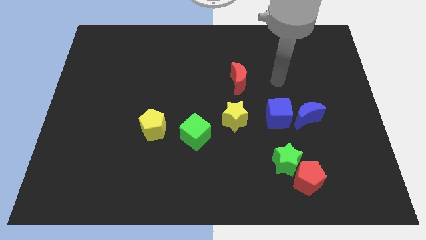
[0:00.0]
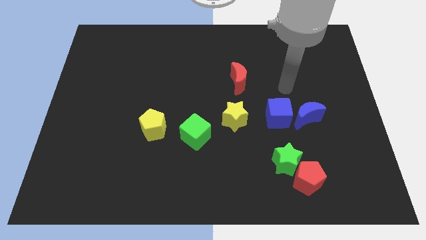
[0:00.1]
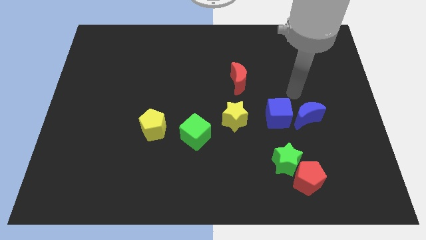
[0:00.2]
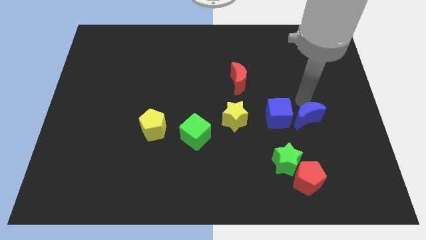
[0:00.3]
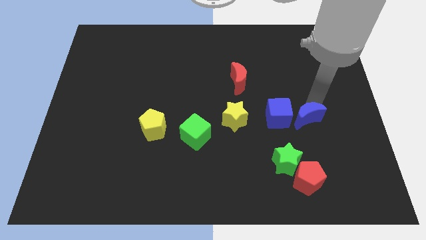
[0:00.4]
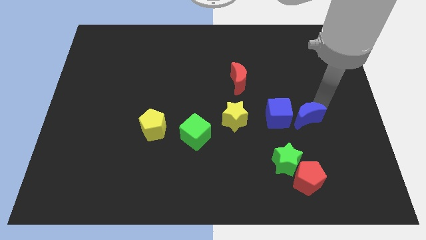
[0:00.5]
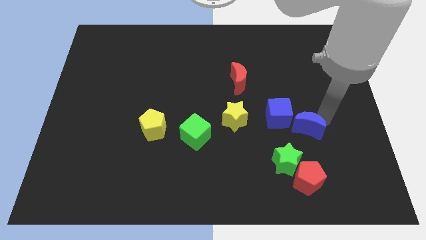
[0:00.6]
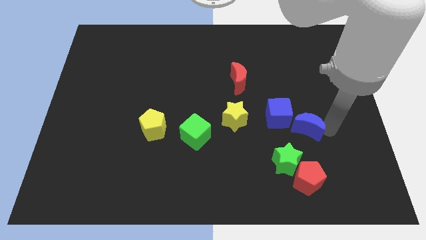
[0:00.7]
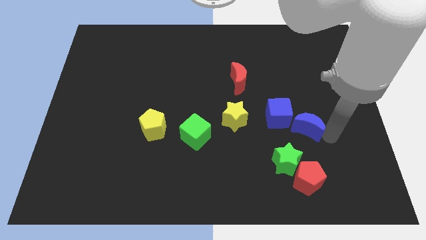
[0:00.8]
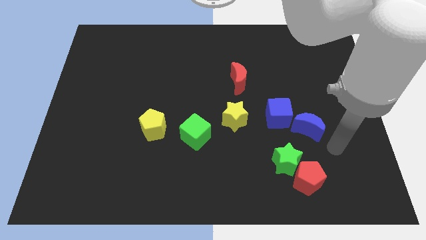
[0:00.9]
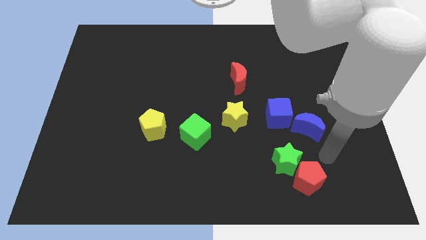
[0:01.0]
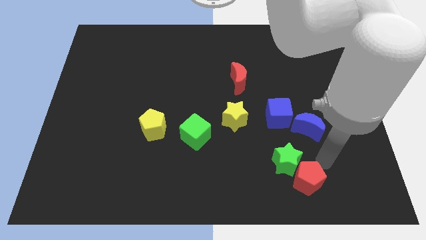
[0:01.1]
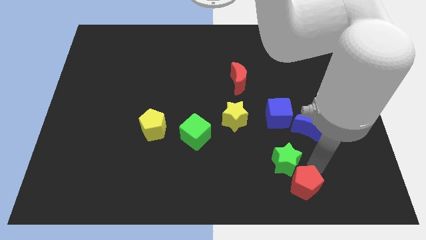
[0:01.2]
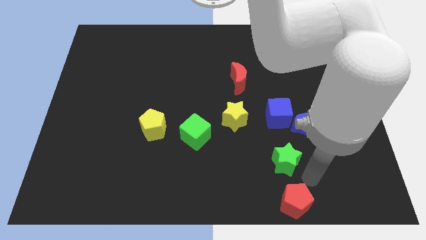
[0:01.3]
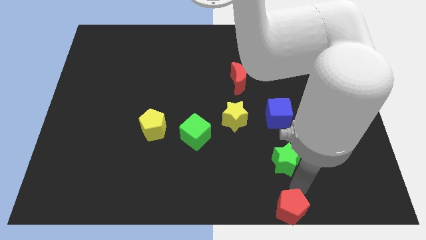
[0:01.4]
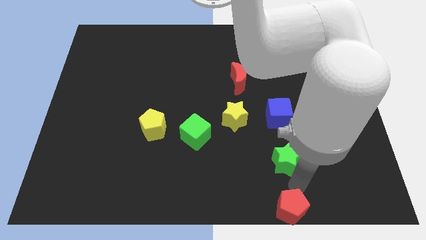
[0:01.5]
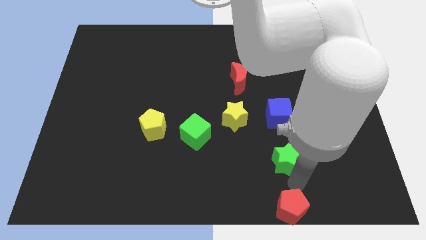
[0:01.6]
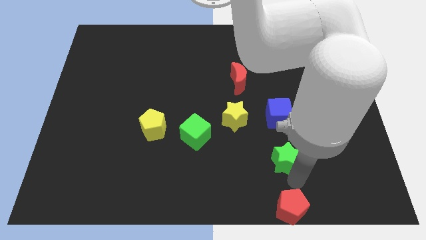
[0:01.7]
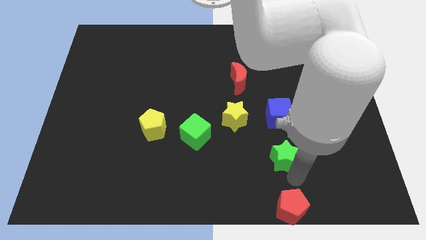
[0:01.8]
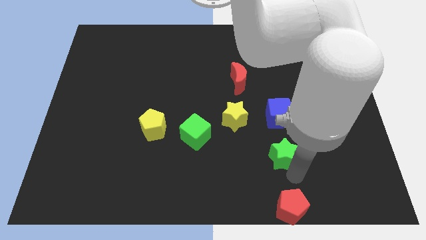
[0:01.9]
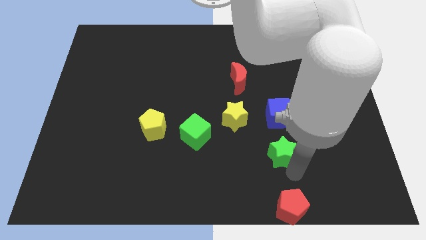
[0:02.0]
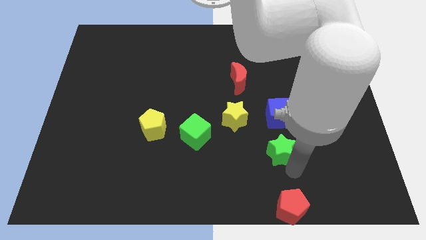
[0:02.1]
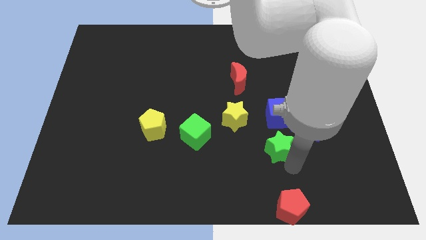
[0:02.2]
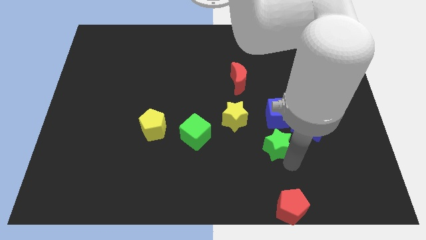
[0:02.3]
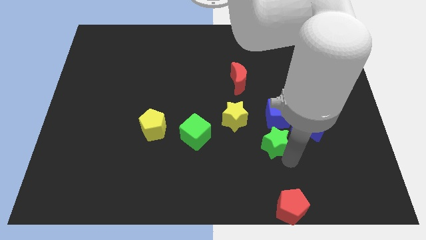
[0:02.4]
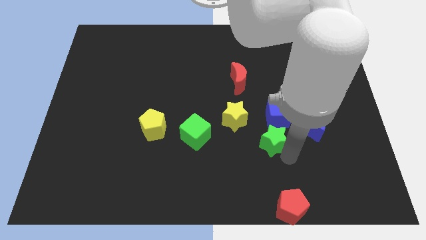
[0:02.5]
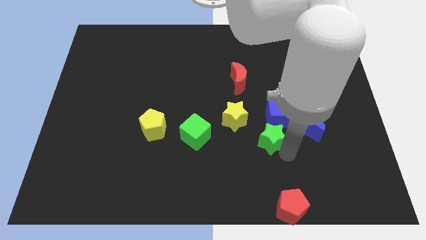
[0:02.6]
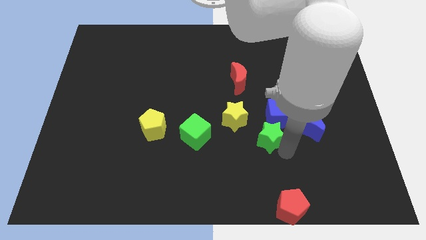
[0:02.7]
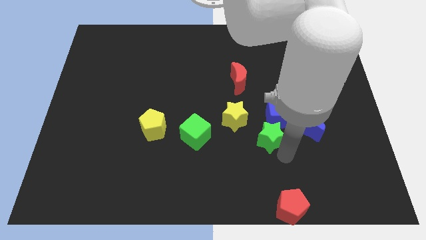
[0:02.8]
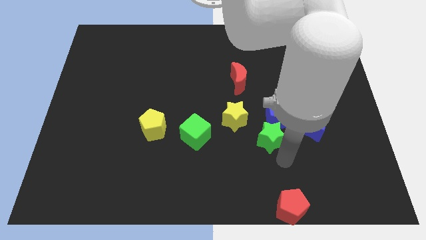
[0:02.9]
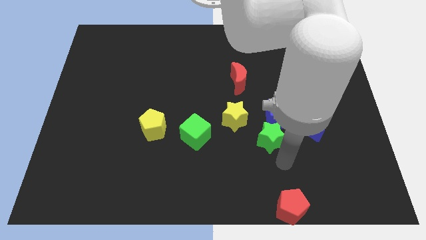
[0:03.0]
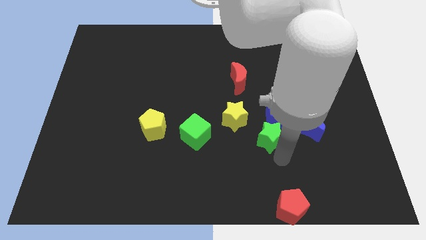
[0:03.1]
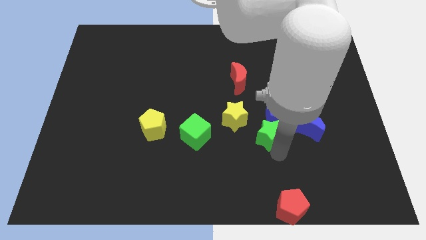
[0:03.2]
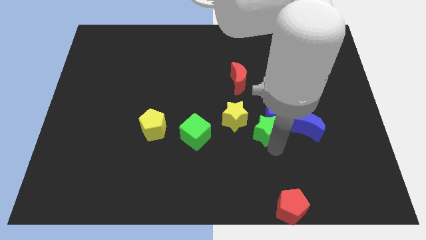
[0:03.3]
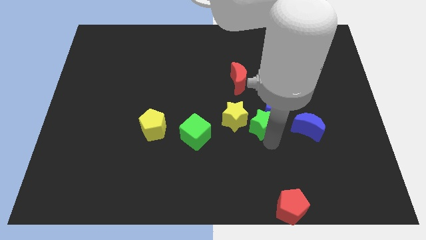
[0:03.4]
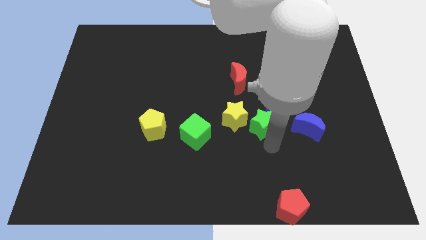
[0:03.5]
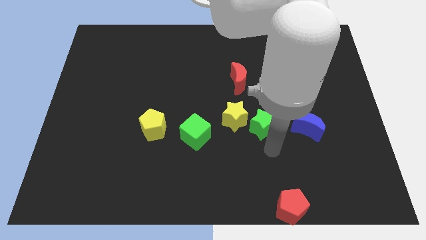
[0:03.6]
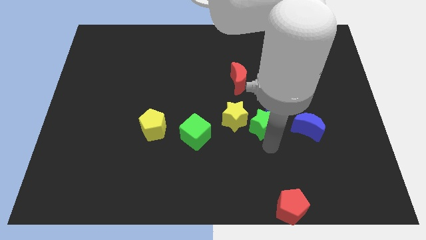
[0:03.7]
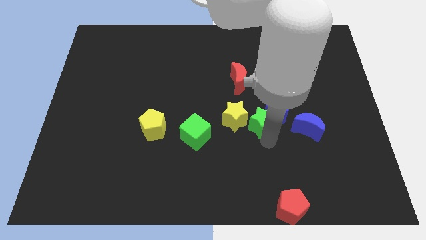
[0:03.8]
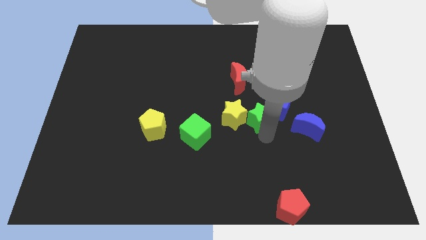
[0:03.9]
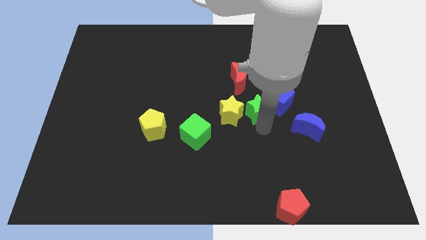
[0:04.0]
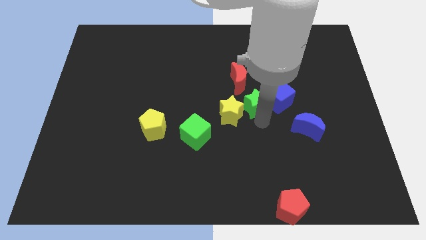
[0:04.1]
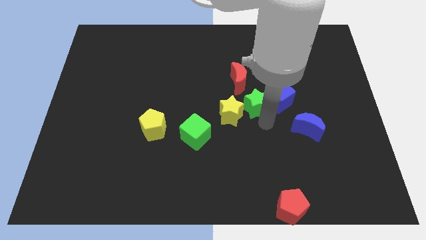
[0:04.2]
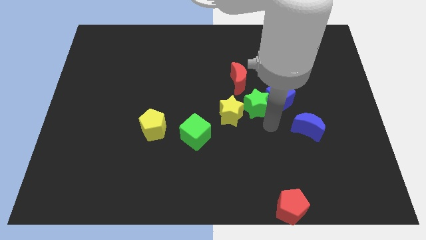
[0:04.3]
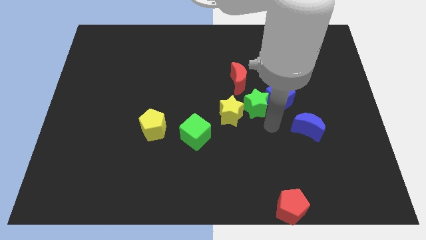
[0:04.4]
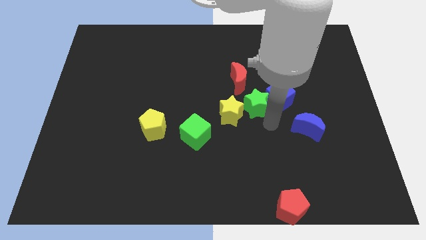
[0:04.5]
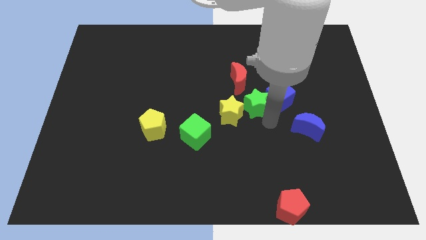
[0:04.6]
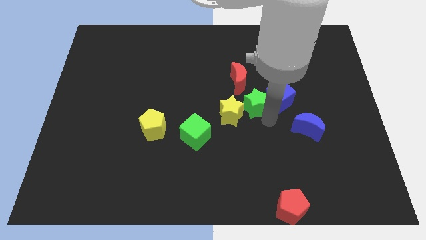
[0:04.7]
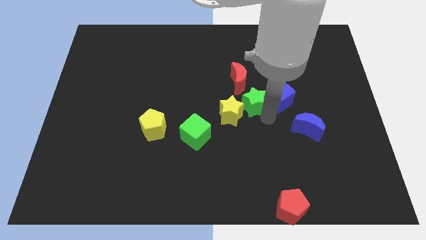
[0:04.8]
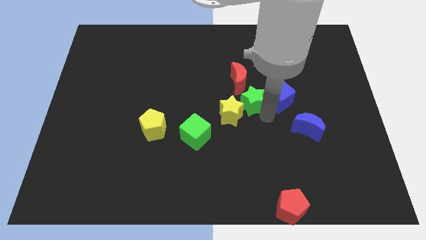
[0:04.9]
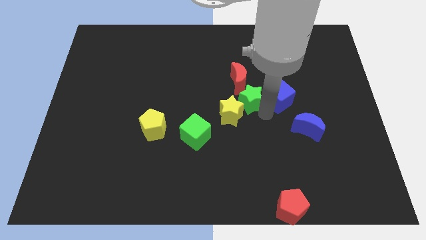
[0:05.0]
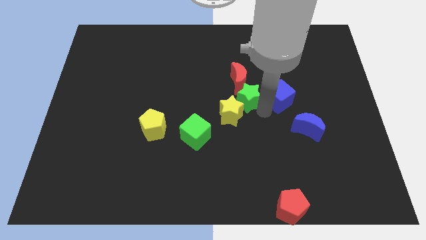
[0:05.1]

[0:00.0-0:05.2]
move the green star close to the red moon

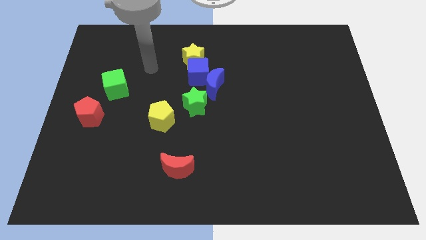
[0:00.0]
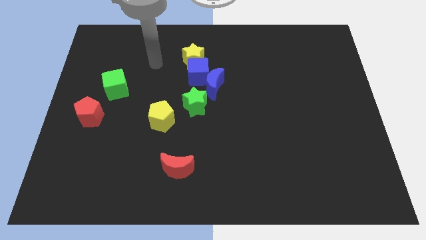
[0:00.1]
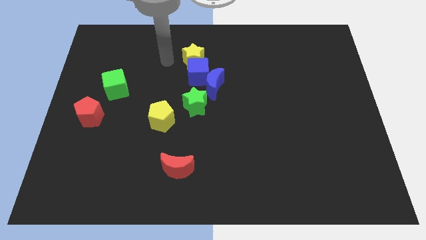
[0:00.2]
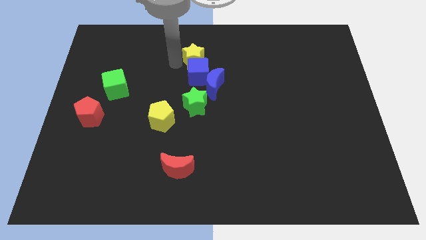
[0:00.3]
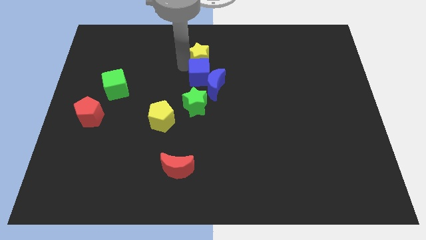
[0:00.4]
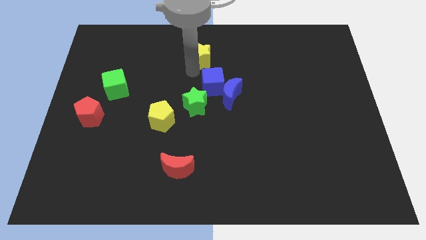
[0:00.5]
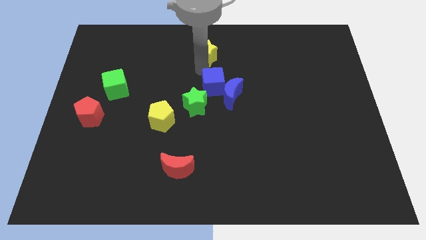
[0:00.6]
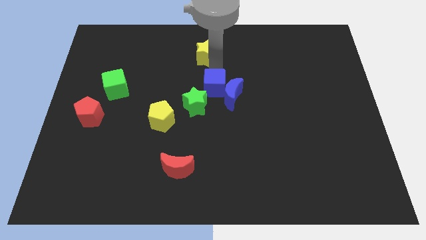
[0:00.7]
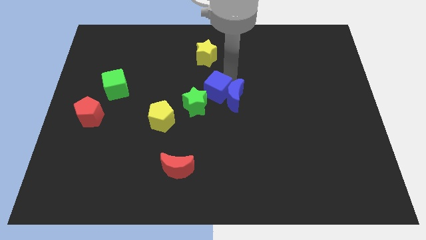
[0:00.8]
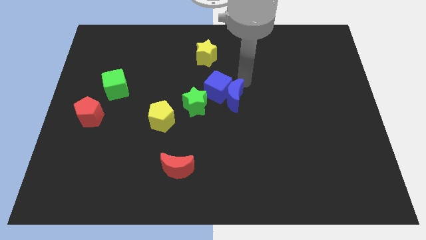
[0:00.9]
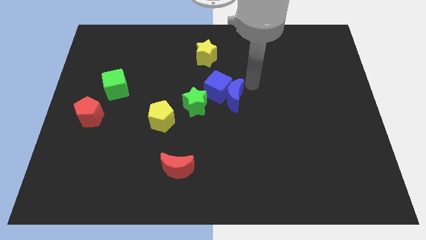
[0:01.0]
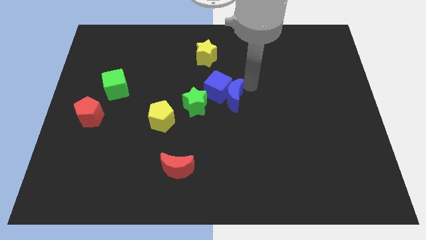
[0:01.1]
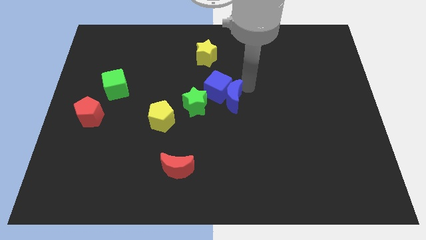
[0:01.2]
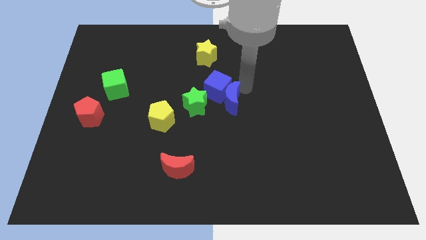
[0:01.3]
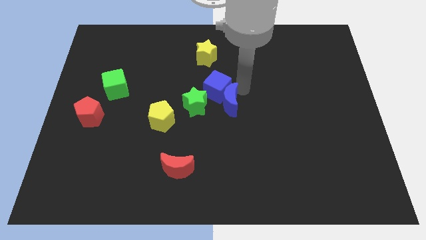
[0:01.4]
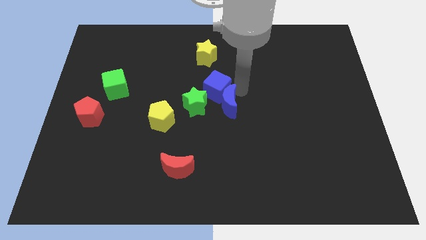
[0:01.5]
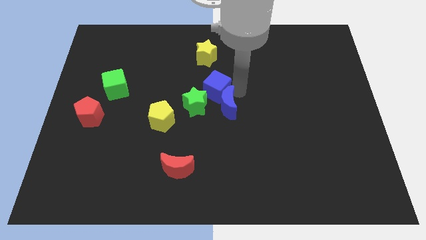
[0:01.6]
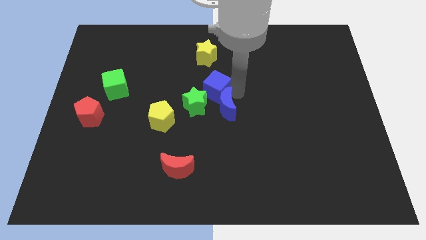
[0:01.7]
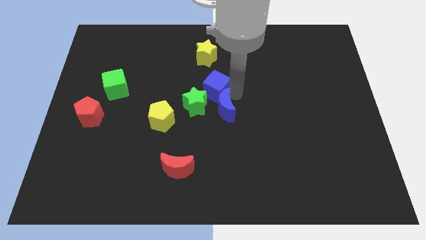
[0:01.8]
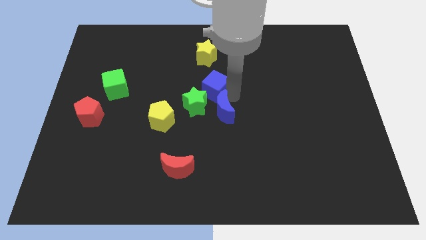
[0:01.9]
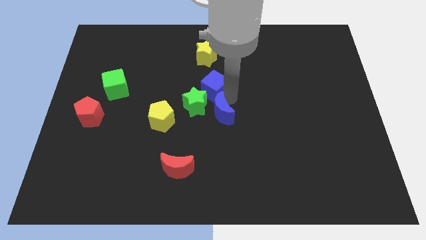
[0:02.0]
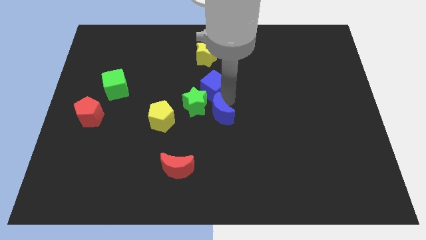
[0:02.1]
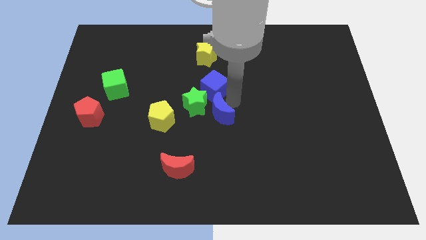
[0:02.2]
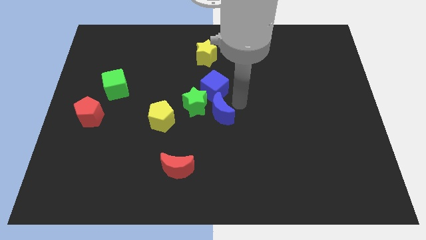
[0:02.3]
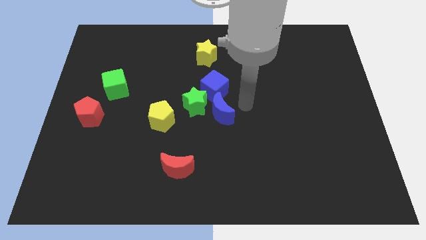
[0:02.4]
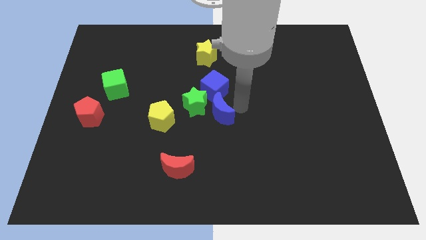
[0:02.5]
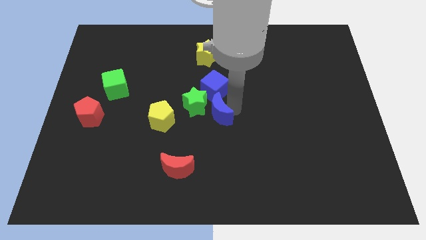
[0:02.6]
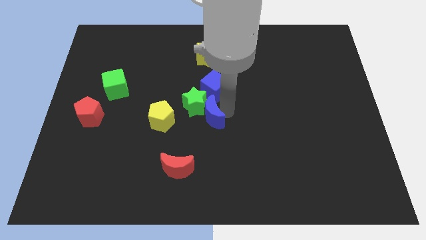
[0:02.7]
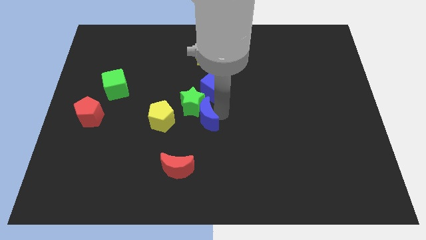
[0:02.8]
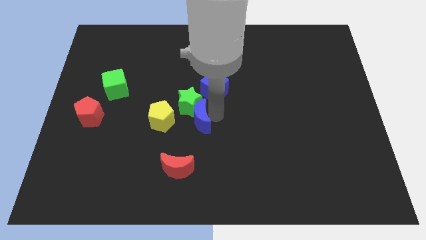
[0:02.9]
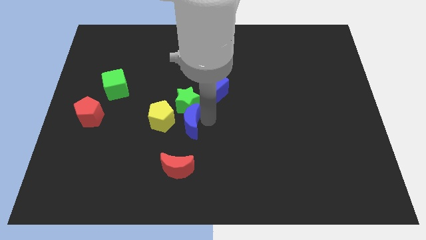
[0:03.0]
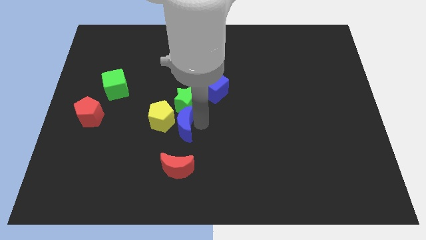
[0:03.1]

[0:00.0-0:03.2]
push the blue moon next to the yellow pentagon
